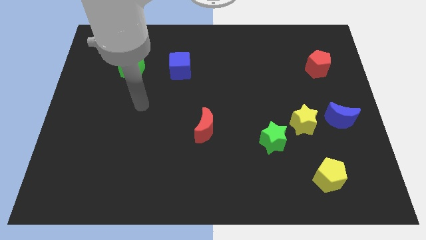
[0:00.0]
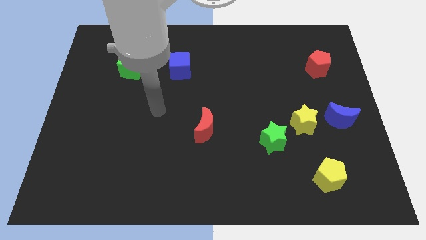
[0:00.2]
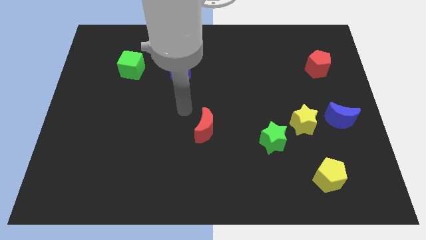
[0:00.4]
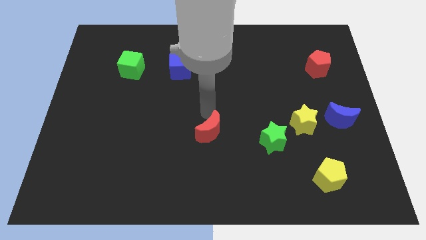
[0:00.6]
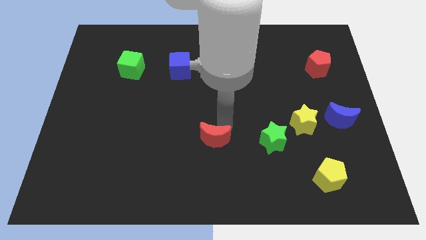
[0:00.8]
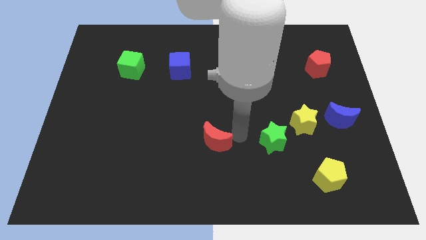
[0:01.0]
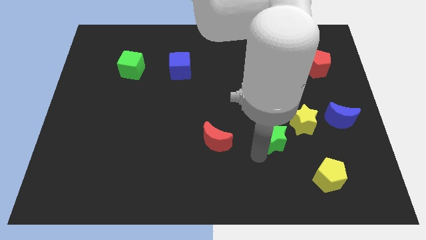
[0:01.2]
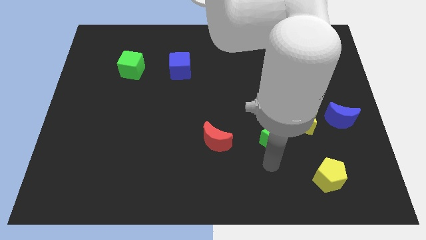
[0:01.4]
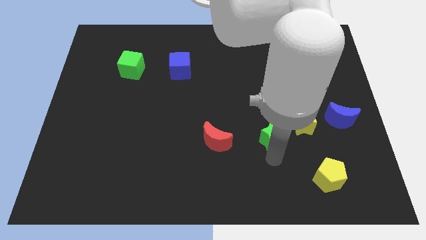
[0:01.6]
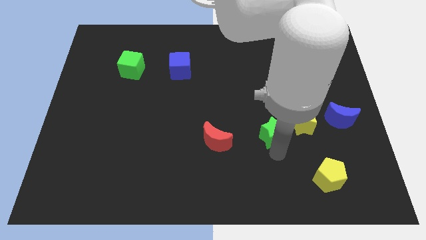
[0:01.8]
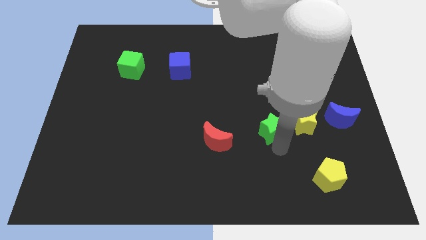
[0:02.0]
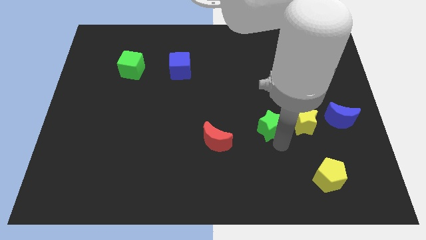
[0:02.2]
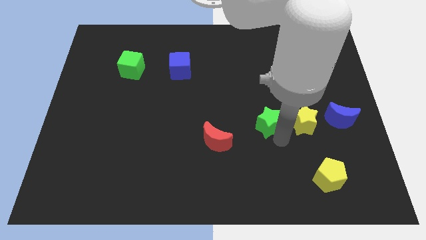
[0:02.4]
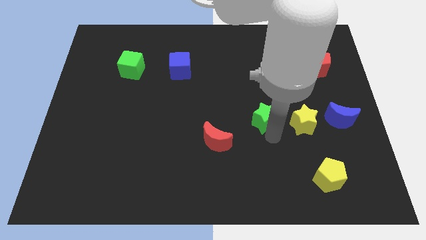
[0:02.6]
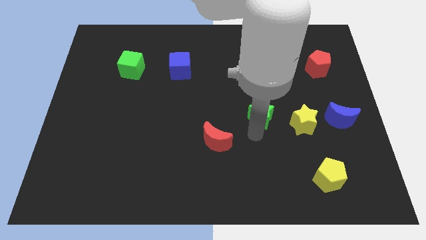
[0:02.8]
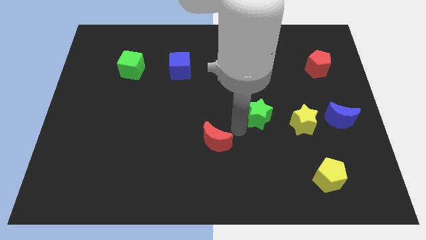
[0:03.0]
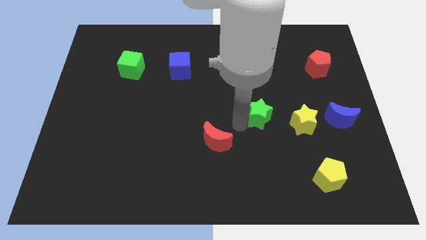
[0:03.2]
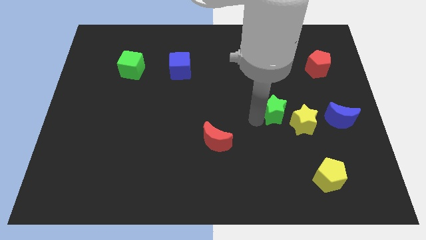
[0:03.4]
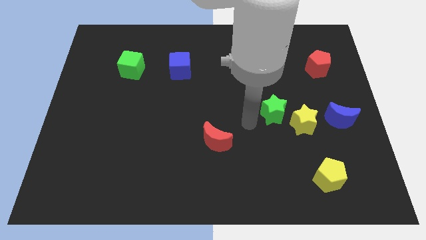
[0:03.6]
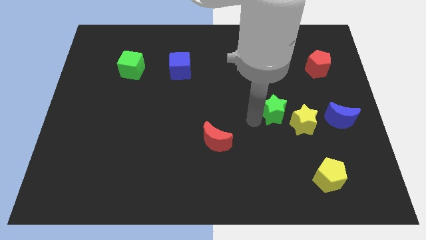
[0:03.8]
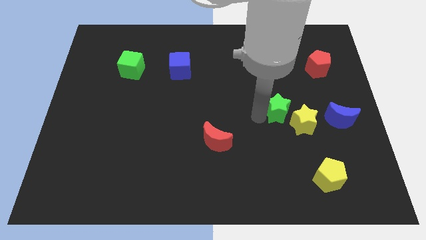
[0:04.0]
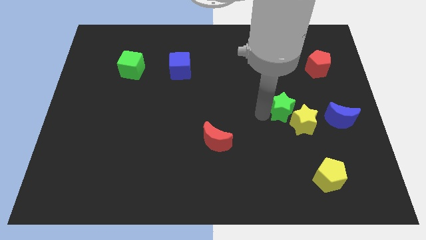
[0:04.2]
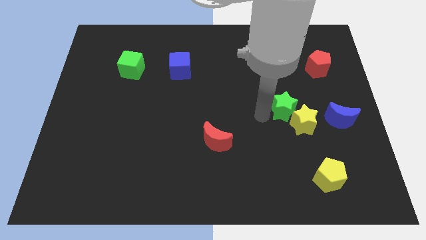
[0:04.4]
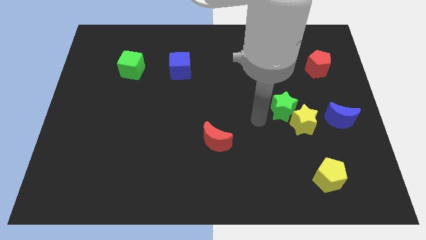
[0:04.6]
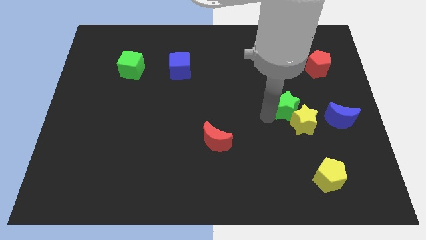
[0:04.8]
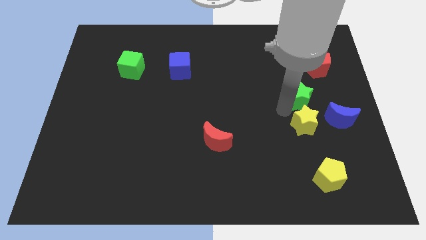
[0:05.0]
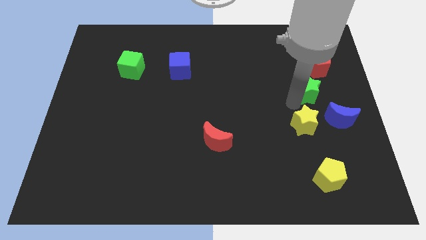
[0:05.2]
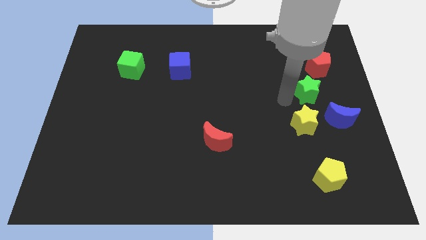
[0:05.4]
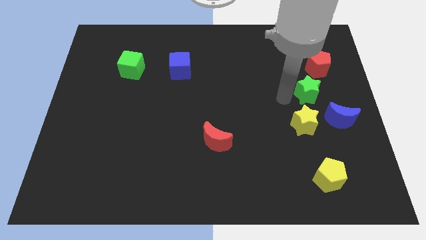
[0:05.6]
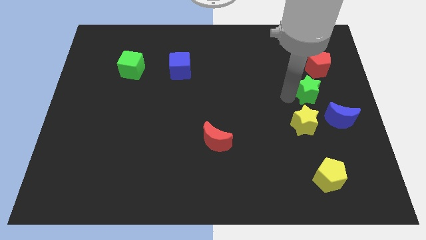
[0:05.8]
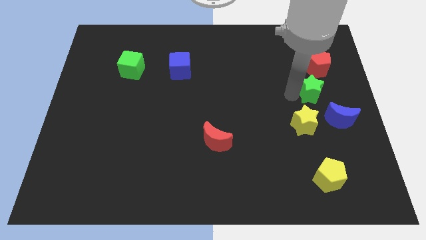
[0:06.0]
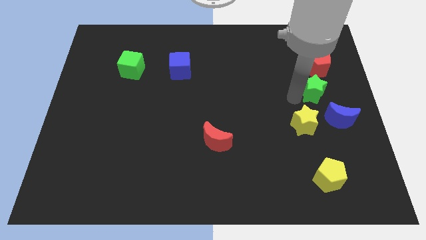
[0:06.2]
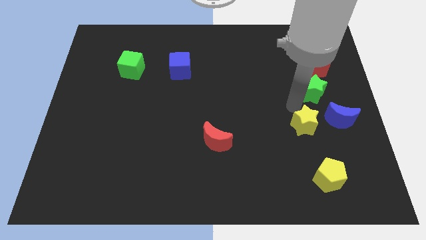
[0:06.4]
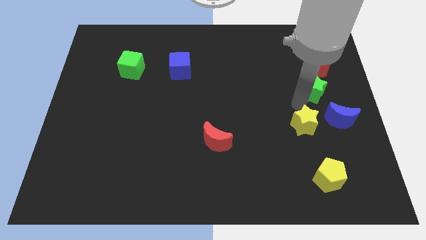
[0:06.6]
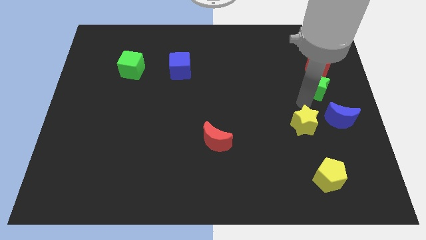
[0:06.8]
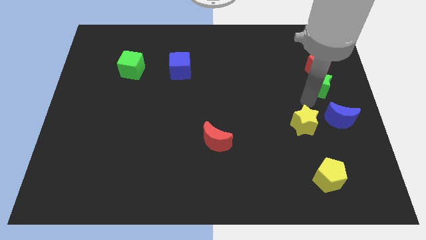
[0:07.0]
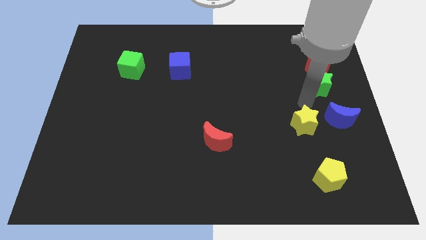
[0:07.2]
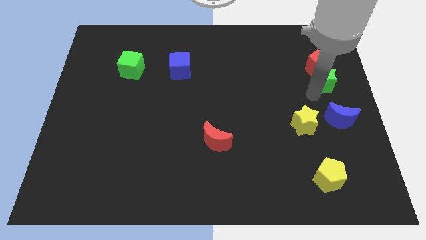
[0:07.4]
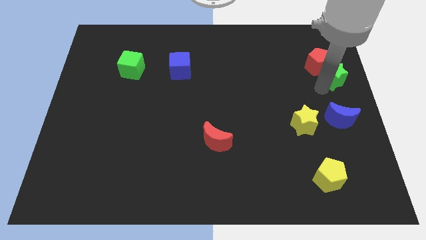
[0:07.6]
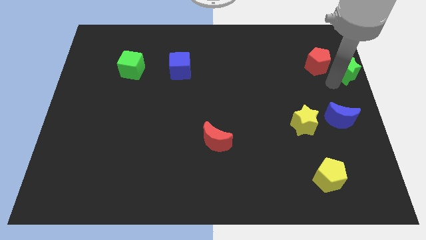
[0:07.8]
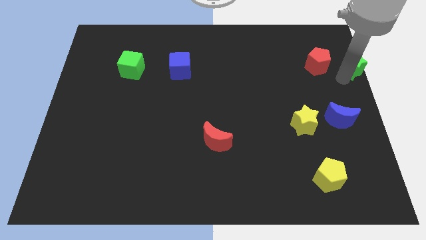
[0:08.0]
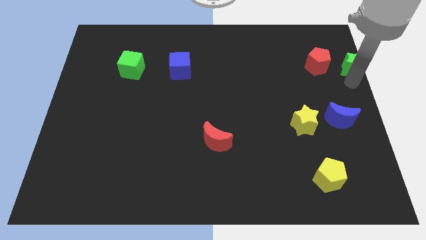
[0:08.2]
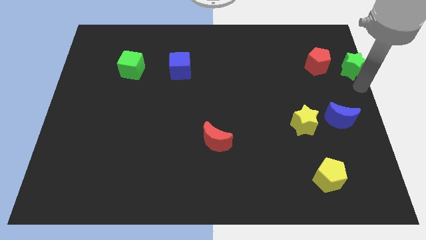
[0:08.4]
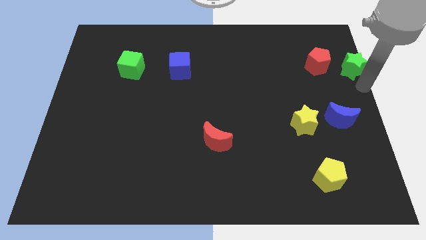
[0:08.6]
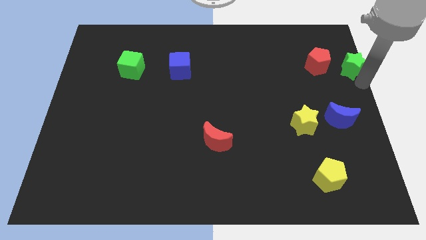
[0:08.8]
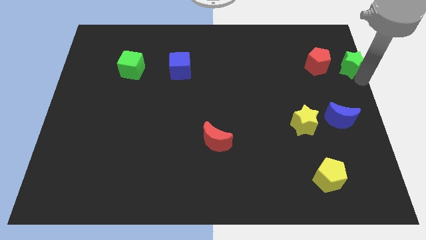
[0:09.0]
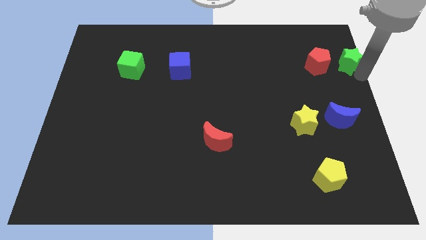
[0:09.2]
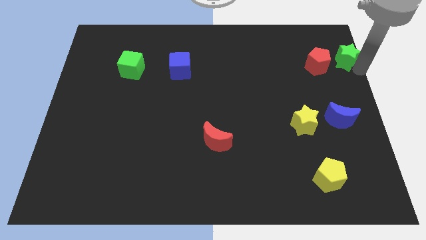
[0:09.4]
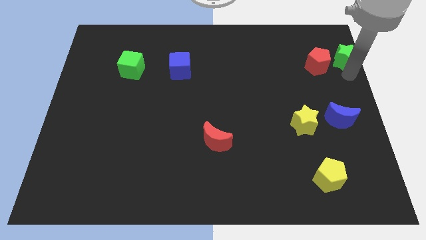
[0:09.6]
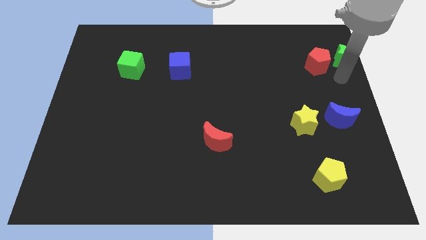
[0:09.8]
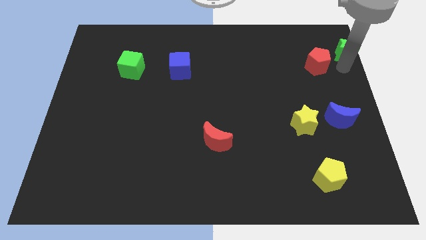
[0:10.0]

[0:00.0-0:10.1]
put the green star to the upper right corner
